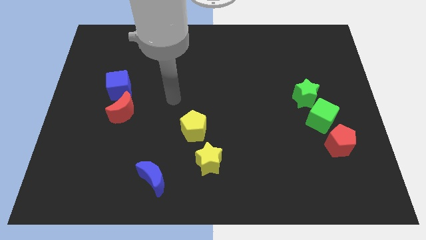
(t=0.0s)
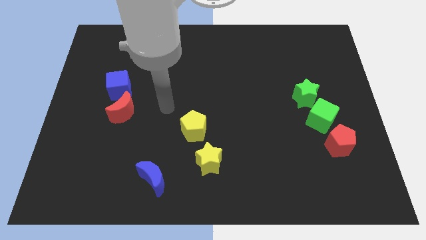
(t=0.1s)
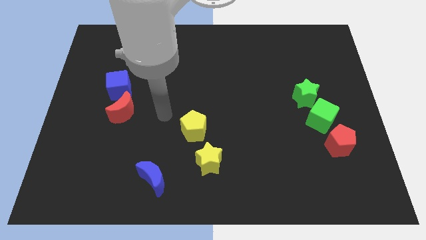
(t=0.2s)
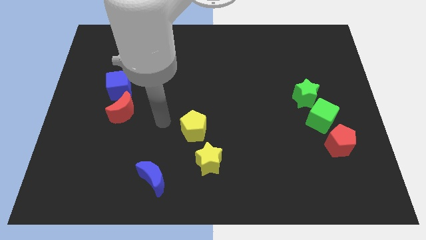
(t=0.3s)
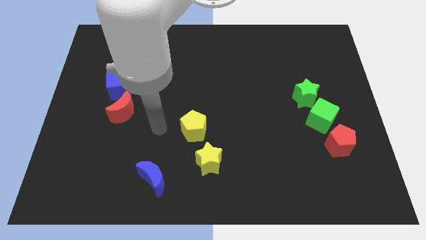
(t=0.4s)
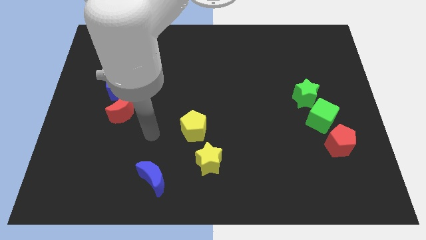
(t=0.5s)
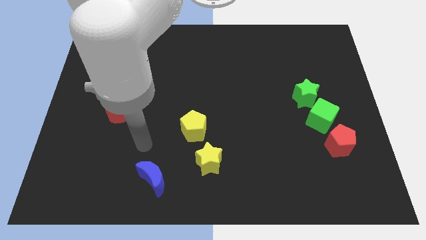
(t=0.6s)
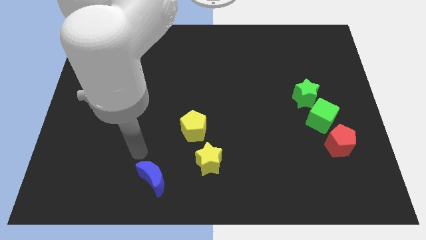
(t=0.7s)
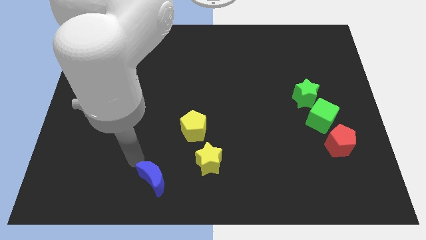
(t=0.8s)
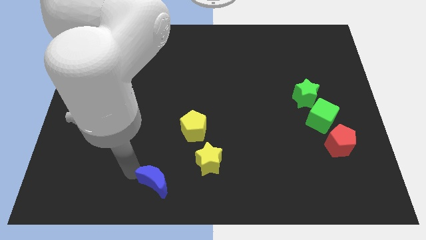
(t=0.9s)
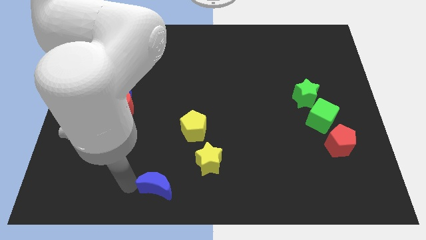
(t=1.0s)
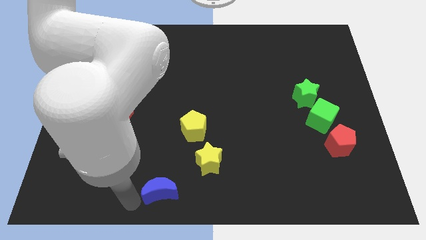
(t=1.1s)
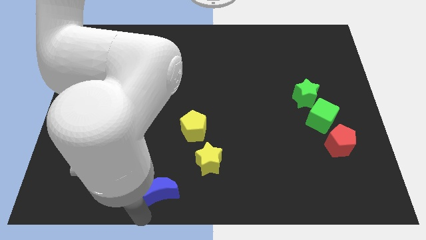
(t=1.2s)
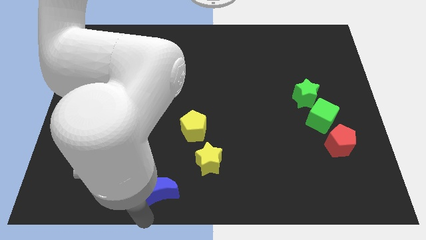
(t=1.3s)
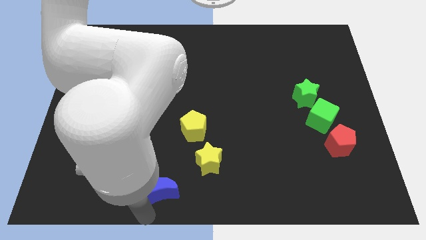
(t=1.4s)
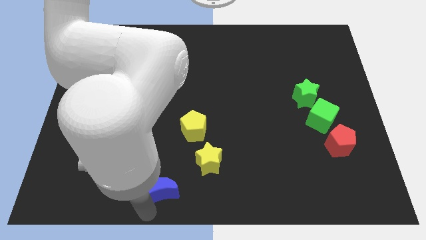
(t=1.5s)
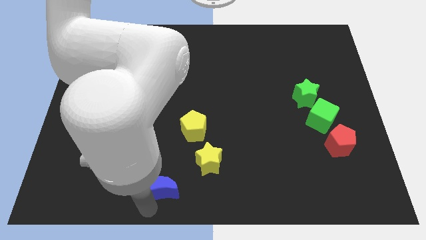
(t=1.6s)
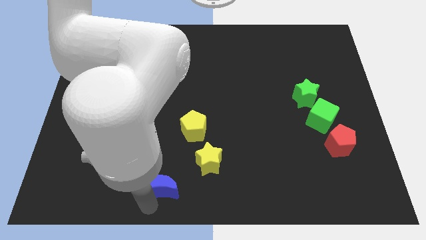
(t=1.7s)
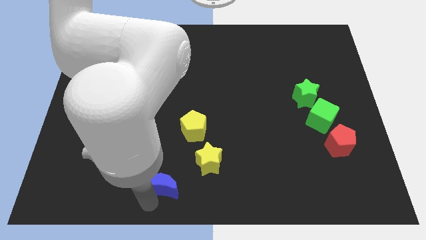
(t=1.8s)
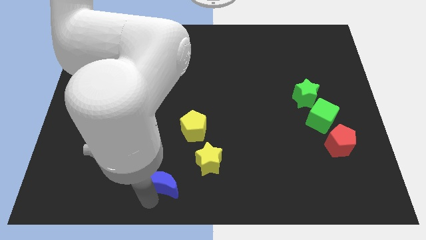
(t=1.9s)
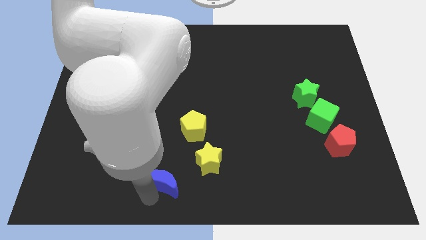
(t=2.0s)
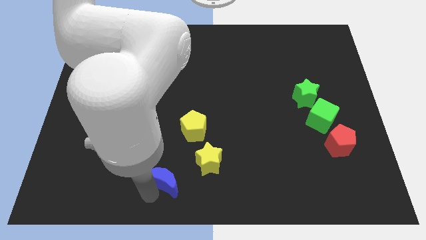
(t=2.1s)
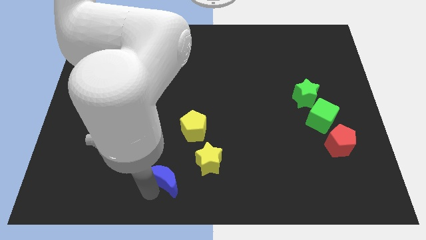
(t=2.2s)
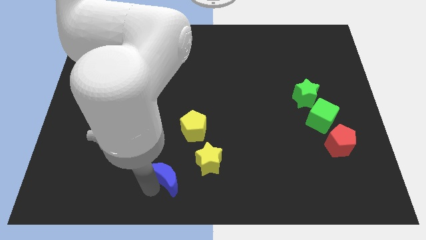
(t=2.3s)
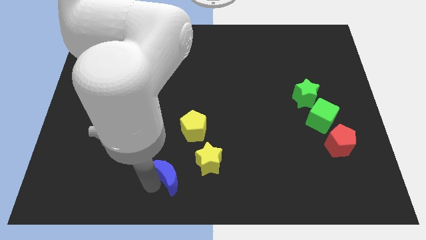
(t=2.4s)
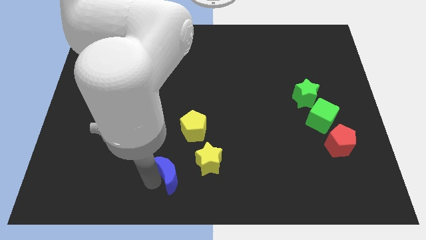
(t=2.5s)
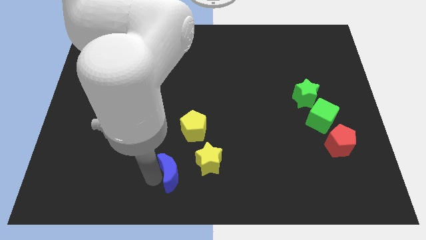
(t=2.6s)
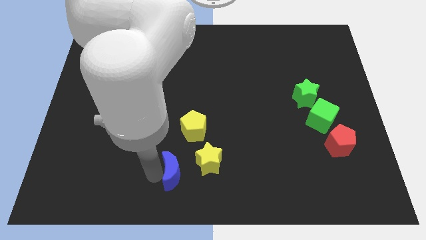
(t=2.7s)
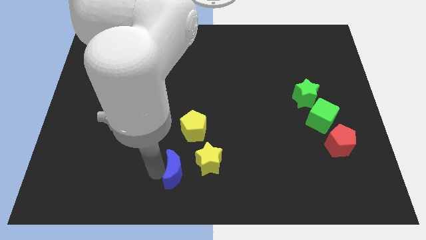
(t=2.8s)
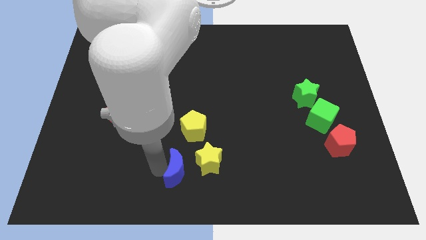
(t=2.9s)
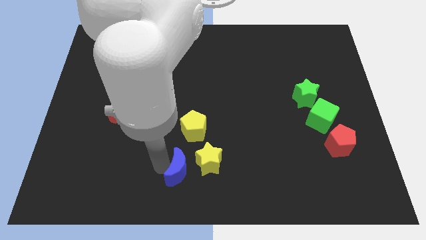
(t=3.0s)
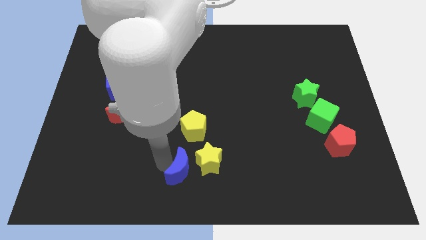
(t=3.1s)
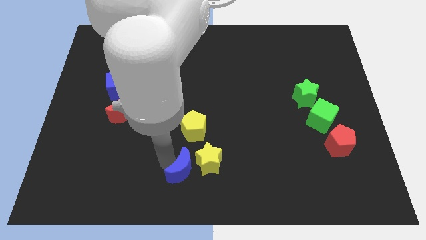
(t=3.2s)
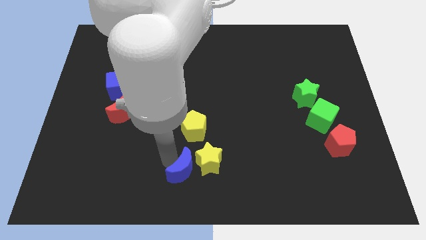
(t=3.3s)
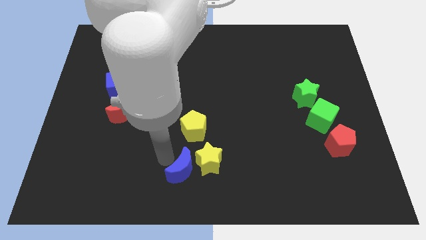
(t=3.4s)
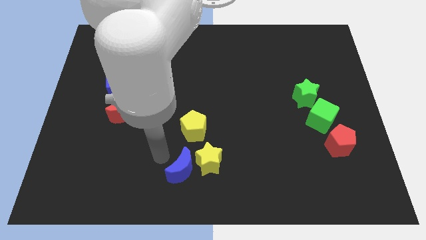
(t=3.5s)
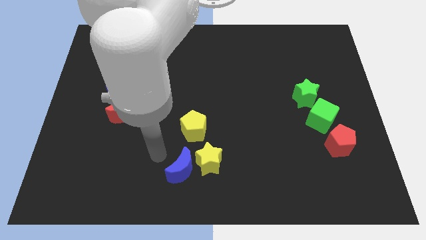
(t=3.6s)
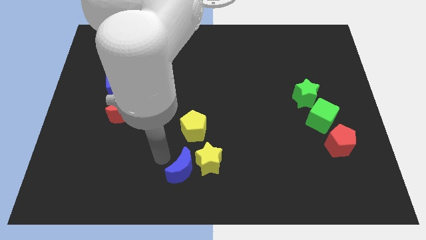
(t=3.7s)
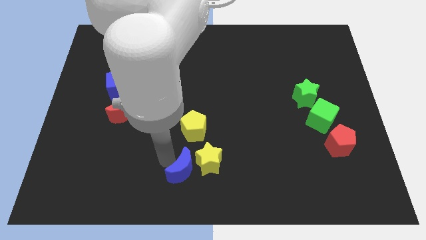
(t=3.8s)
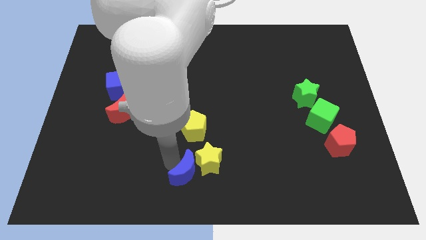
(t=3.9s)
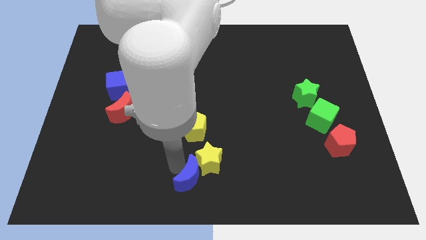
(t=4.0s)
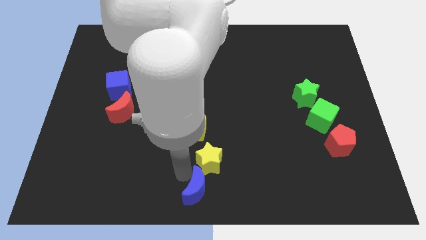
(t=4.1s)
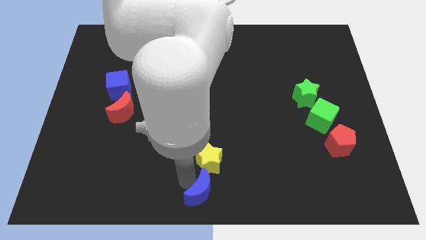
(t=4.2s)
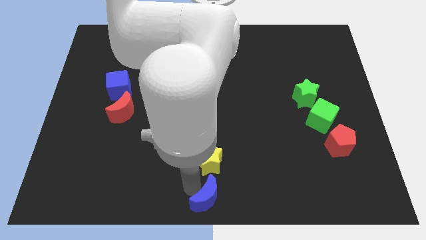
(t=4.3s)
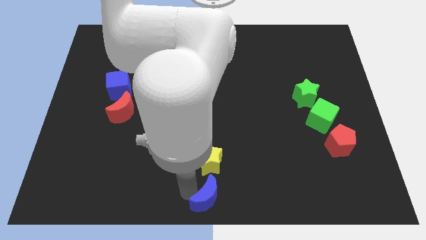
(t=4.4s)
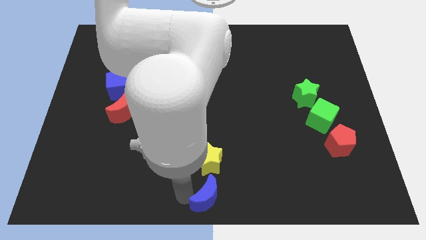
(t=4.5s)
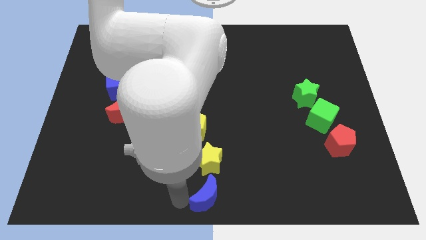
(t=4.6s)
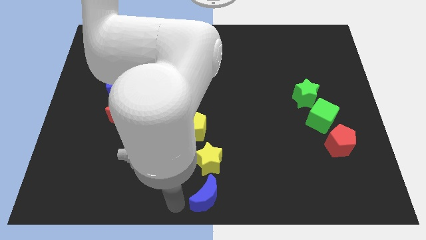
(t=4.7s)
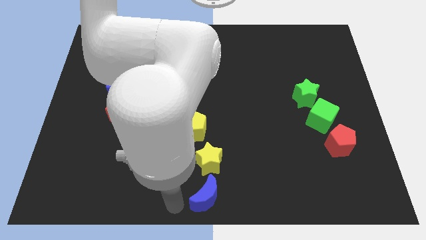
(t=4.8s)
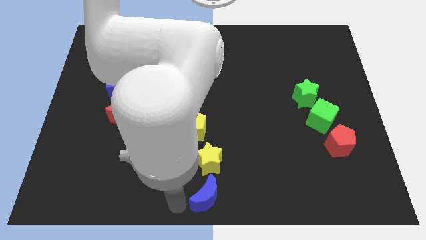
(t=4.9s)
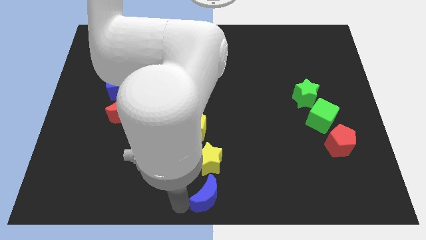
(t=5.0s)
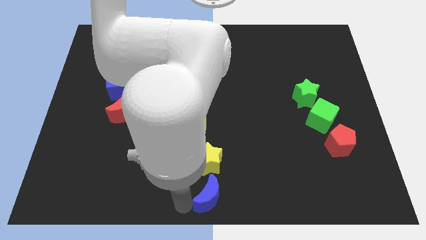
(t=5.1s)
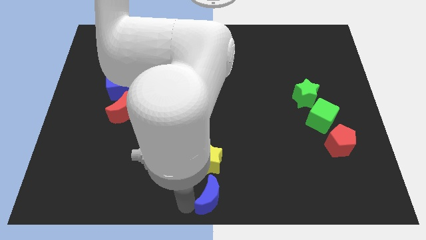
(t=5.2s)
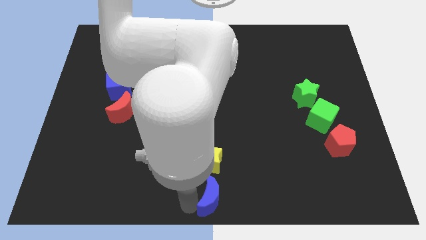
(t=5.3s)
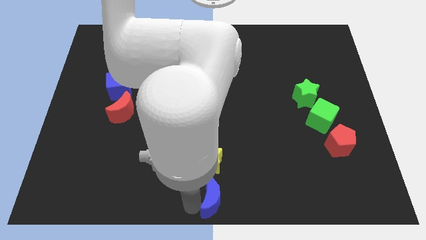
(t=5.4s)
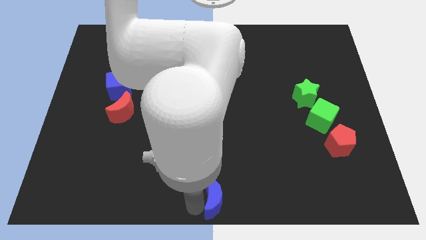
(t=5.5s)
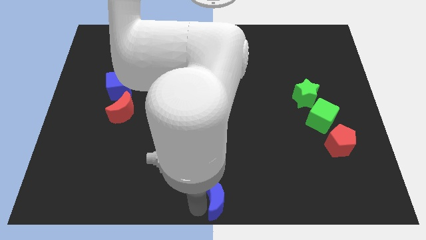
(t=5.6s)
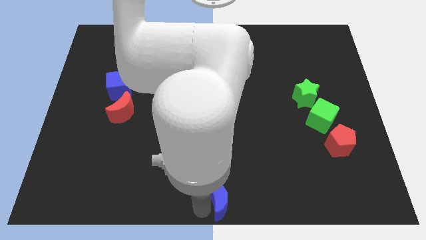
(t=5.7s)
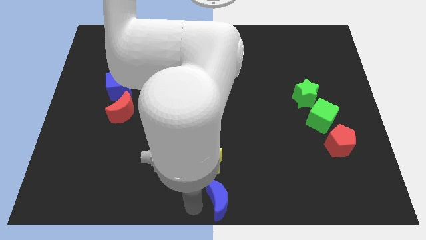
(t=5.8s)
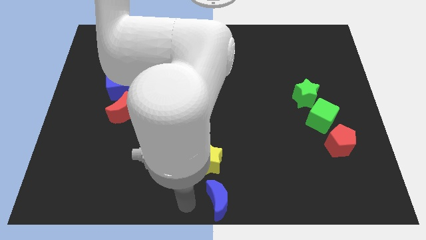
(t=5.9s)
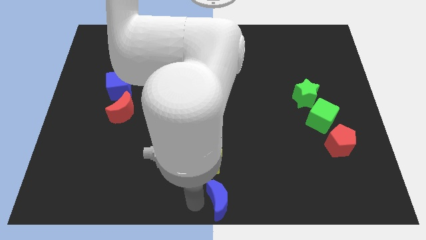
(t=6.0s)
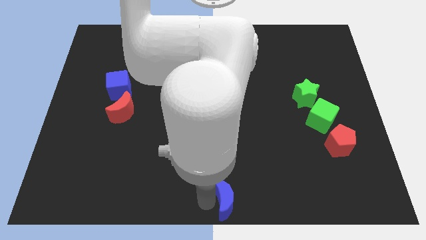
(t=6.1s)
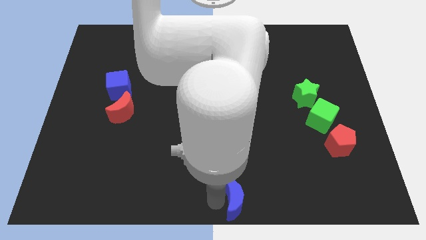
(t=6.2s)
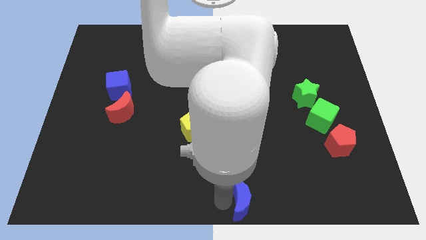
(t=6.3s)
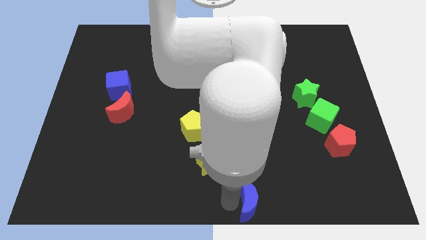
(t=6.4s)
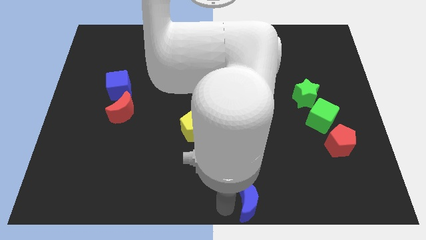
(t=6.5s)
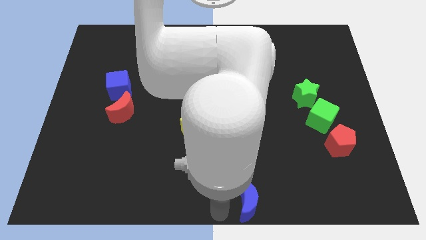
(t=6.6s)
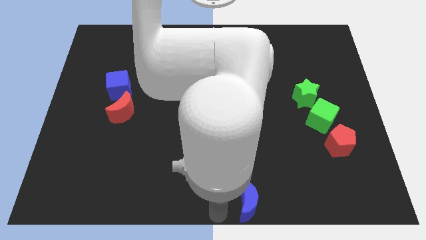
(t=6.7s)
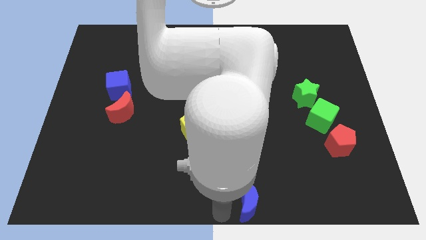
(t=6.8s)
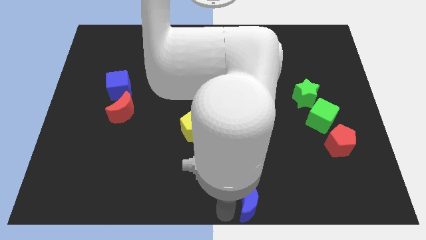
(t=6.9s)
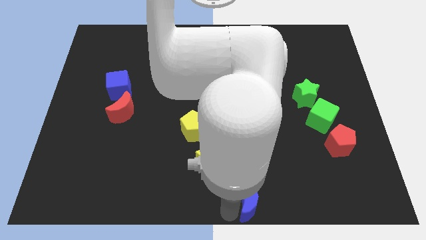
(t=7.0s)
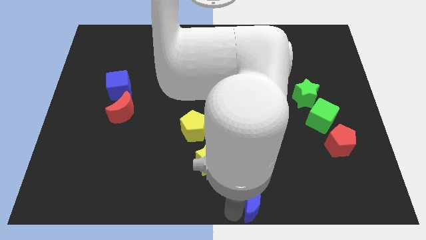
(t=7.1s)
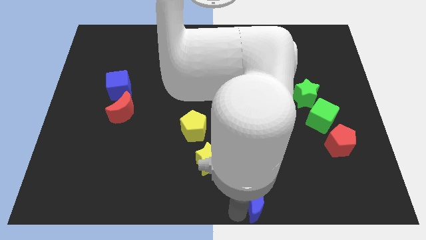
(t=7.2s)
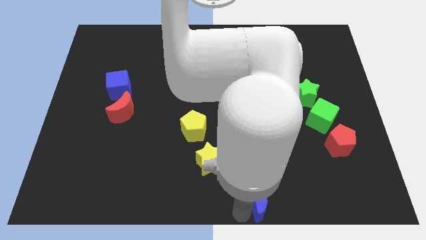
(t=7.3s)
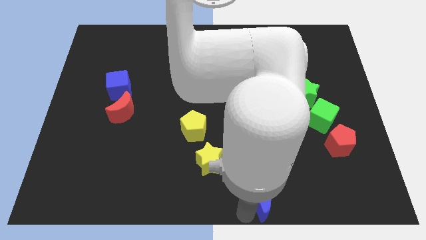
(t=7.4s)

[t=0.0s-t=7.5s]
slide the blue moon right

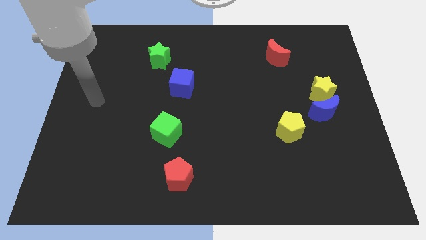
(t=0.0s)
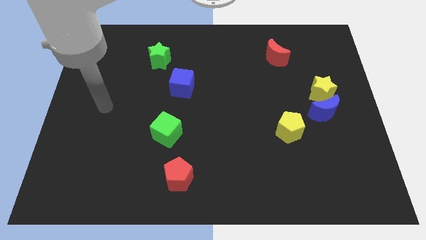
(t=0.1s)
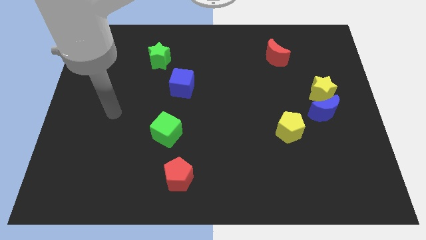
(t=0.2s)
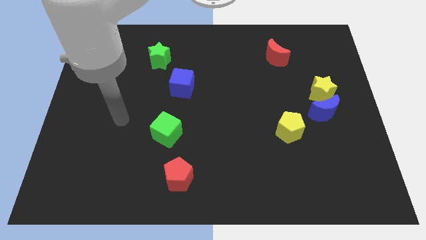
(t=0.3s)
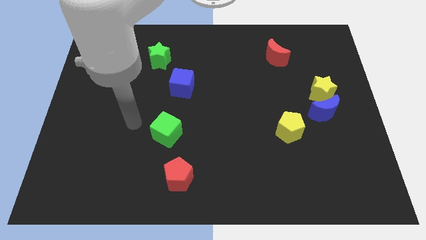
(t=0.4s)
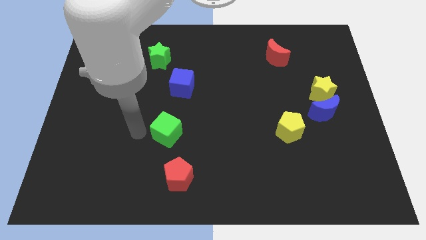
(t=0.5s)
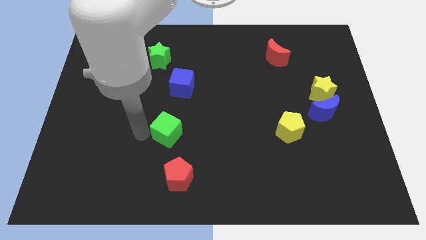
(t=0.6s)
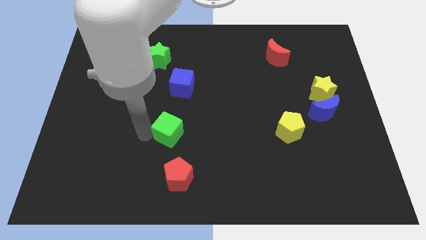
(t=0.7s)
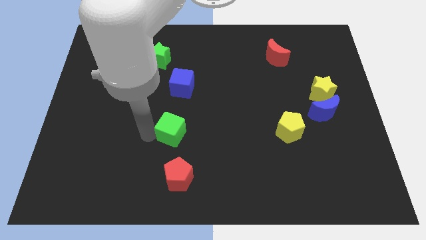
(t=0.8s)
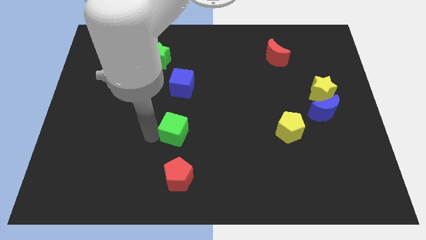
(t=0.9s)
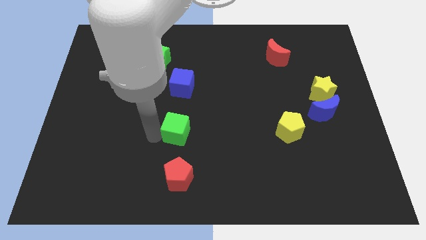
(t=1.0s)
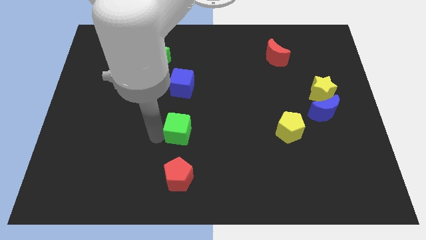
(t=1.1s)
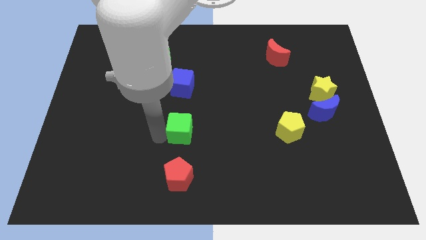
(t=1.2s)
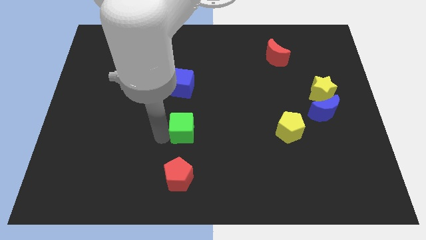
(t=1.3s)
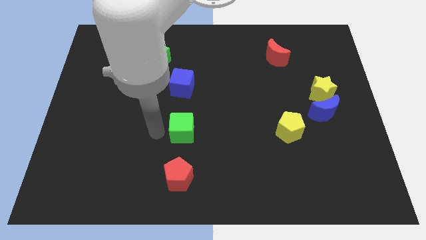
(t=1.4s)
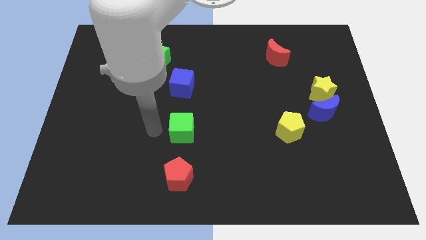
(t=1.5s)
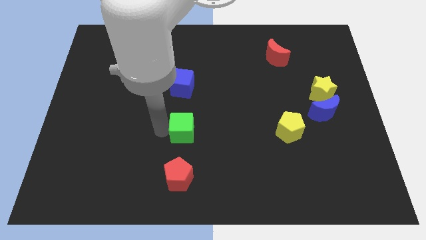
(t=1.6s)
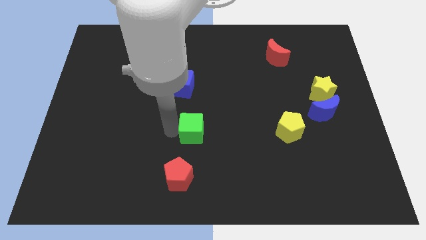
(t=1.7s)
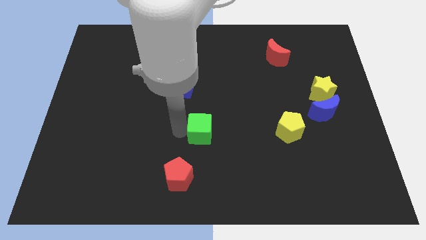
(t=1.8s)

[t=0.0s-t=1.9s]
slightly move the green cube to the right
